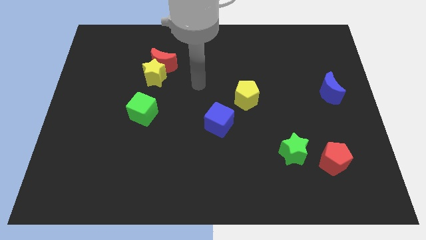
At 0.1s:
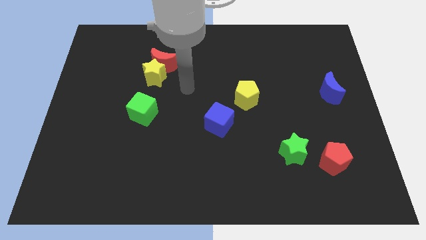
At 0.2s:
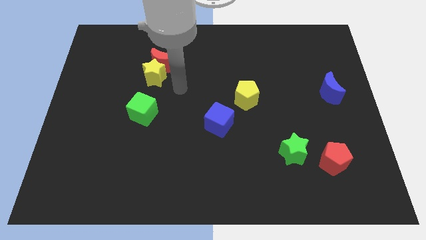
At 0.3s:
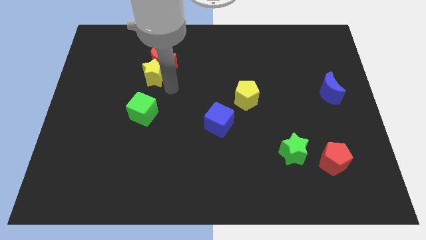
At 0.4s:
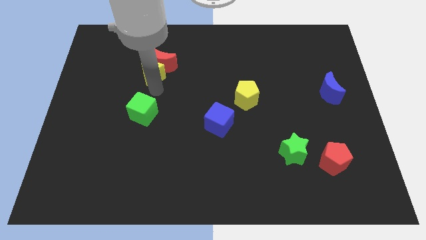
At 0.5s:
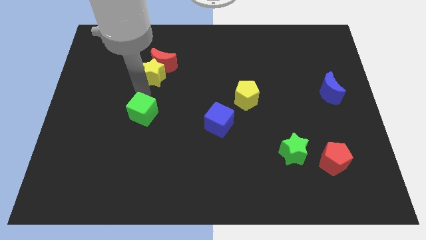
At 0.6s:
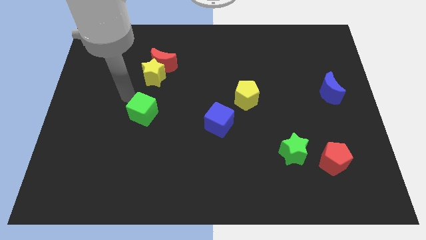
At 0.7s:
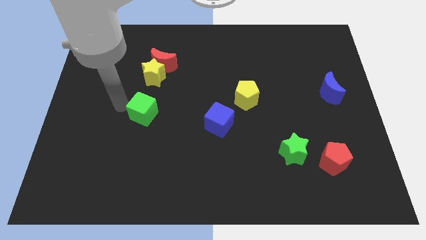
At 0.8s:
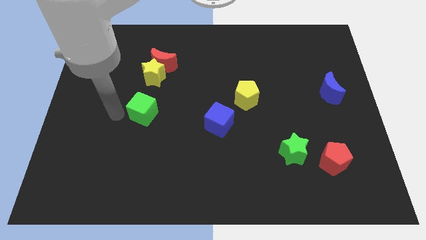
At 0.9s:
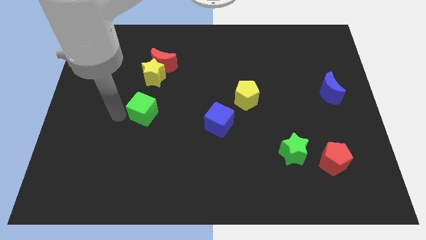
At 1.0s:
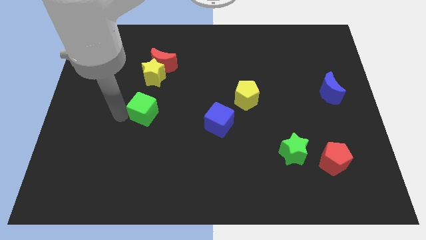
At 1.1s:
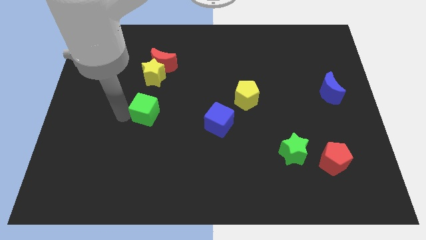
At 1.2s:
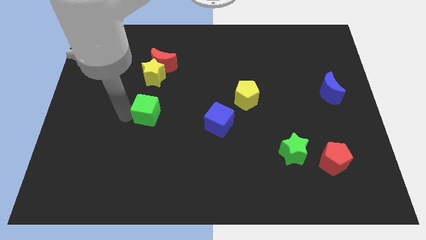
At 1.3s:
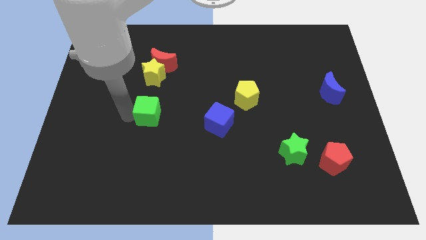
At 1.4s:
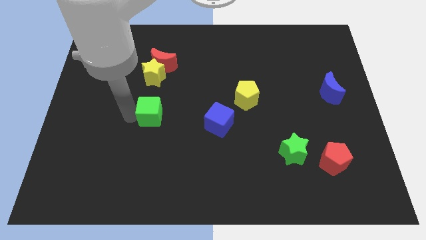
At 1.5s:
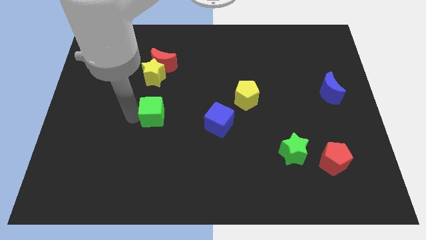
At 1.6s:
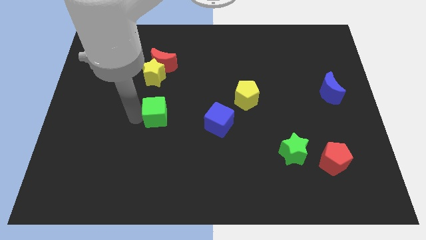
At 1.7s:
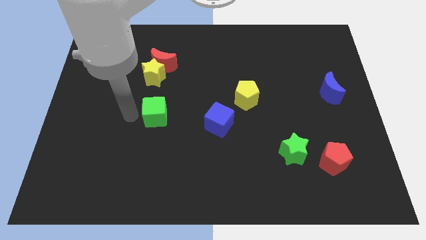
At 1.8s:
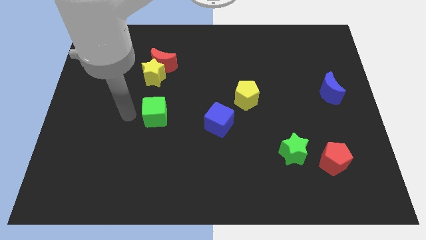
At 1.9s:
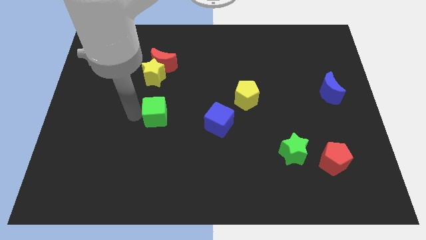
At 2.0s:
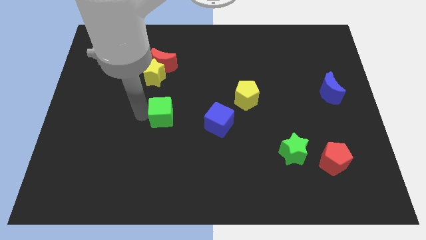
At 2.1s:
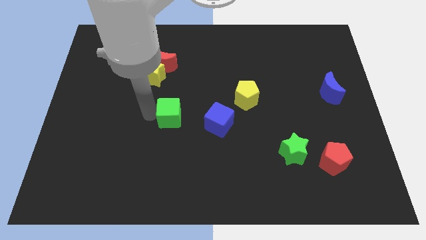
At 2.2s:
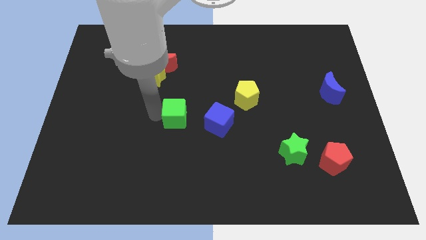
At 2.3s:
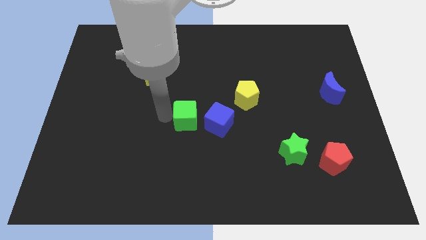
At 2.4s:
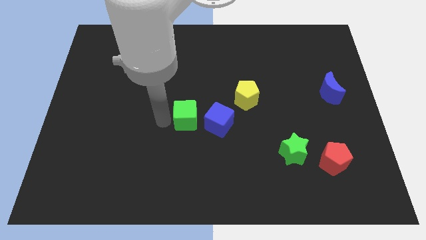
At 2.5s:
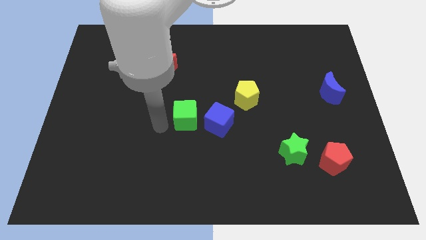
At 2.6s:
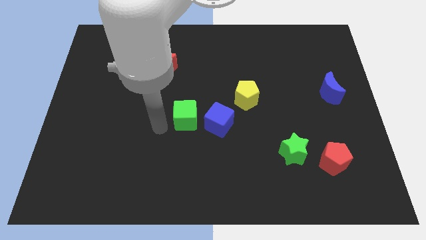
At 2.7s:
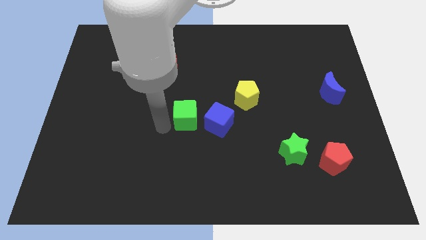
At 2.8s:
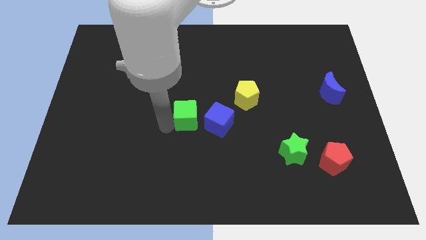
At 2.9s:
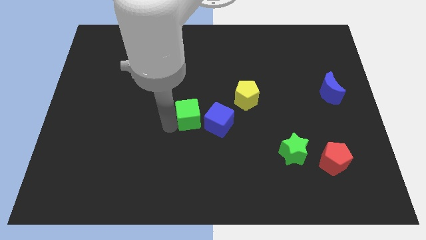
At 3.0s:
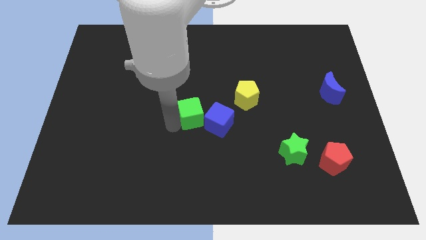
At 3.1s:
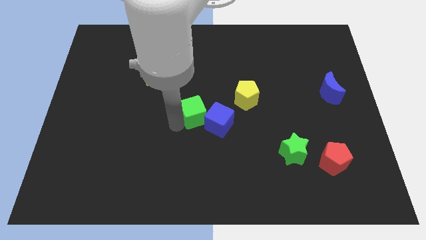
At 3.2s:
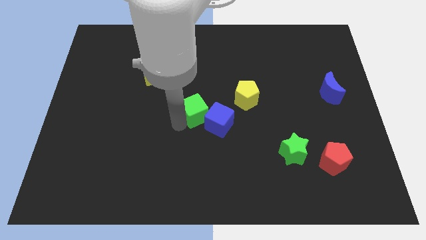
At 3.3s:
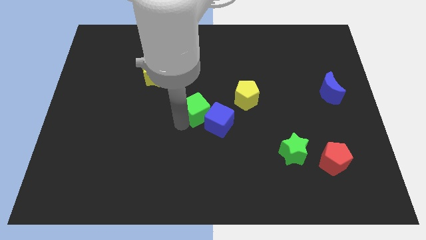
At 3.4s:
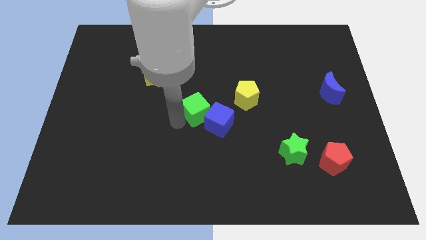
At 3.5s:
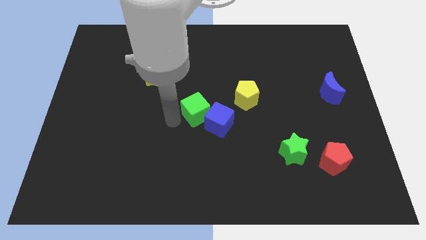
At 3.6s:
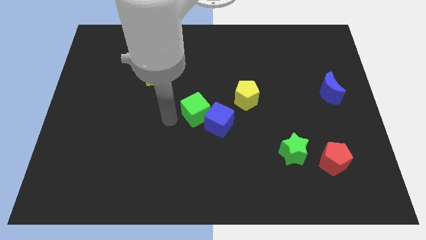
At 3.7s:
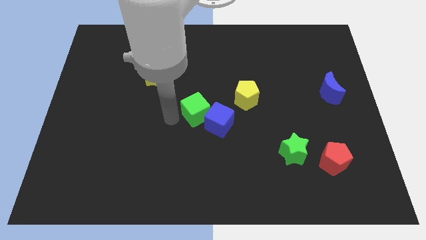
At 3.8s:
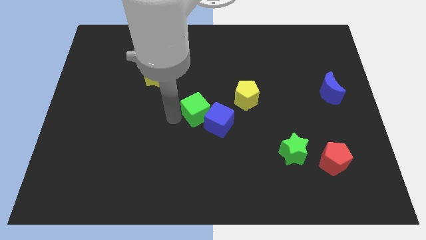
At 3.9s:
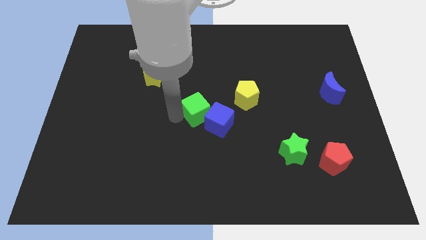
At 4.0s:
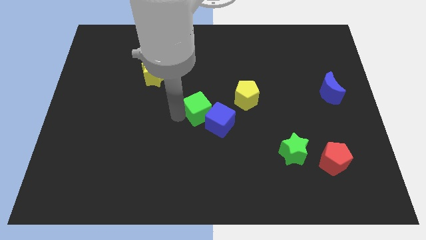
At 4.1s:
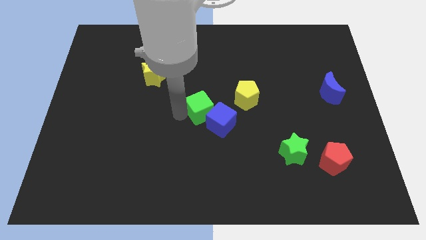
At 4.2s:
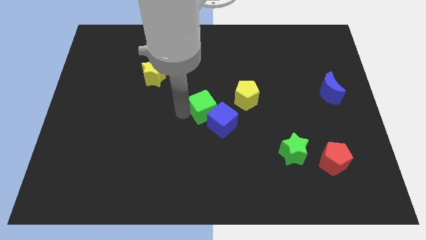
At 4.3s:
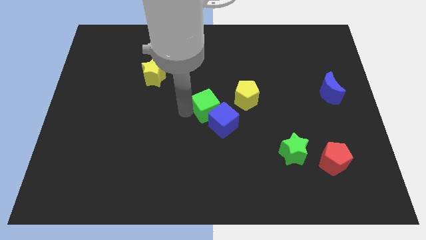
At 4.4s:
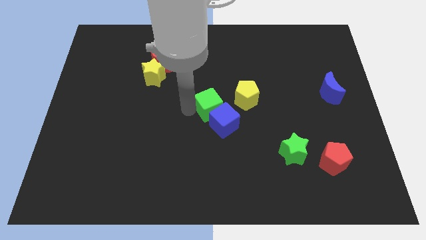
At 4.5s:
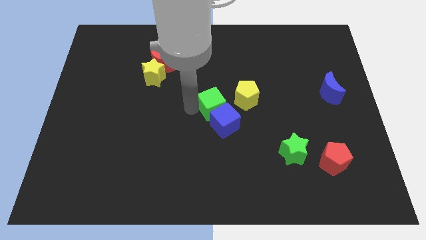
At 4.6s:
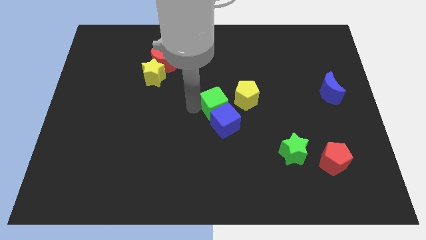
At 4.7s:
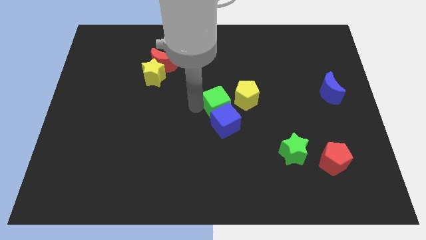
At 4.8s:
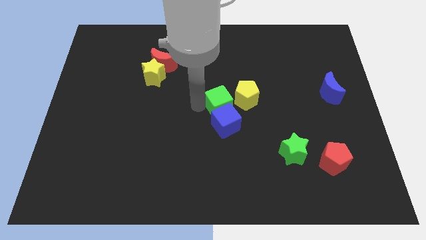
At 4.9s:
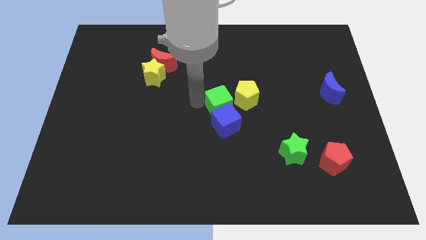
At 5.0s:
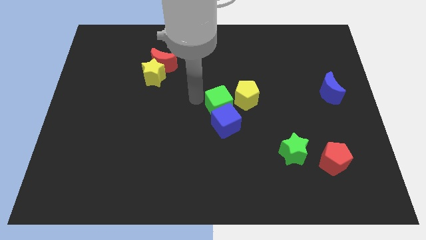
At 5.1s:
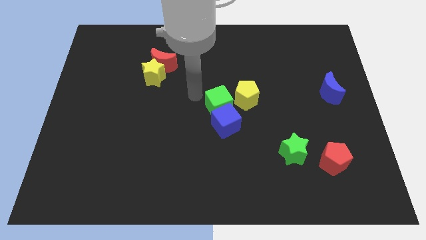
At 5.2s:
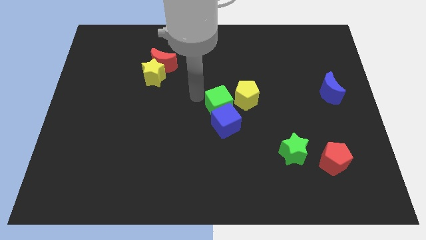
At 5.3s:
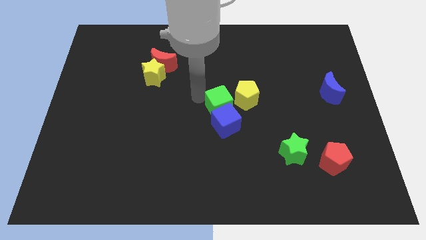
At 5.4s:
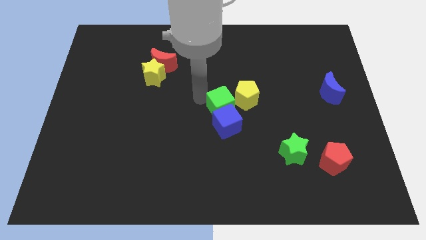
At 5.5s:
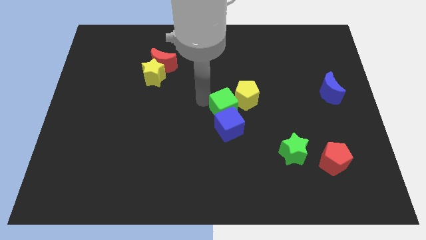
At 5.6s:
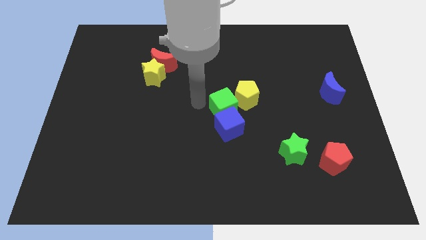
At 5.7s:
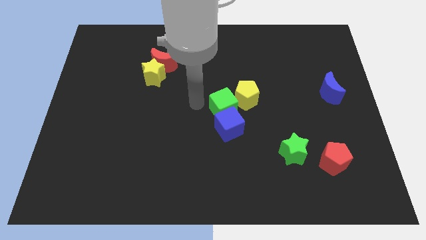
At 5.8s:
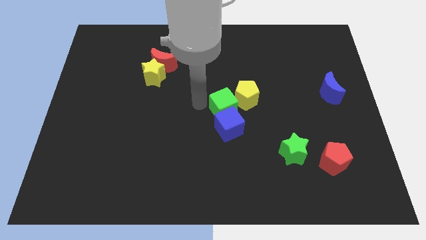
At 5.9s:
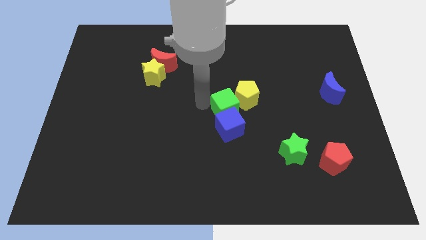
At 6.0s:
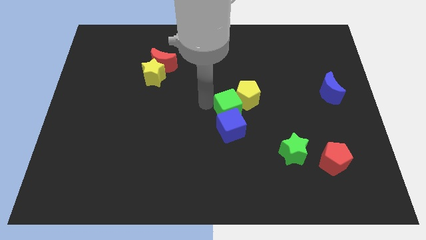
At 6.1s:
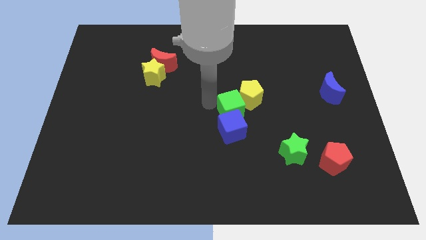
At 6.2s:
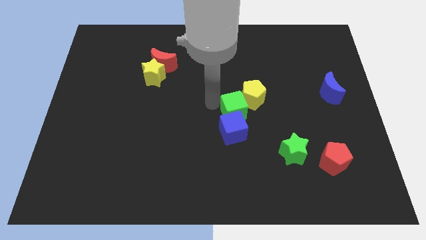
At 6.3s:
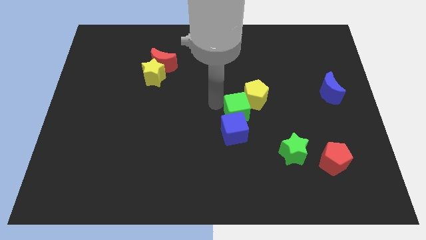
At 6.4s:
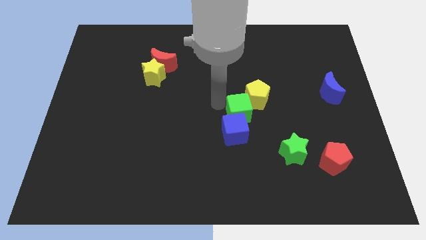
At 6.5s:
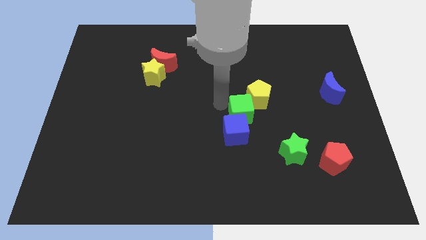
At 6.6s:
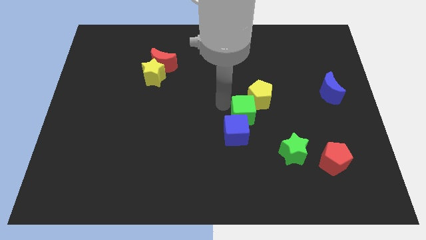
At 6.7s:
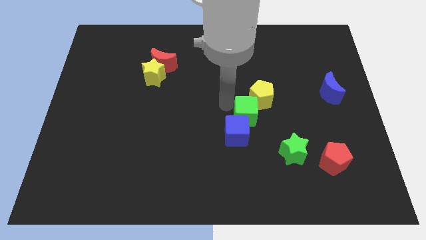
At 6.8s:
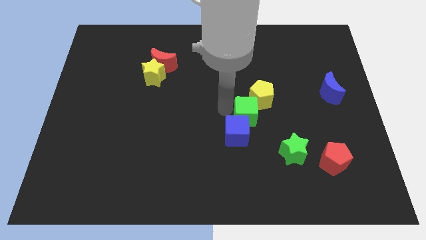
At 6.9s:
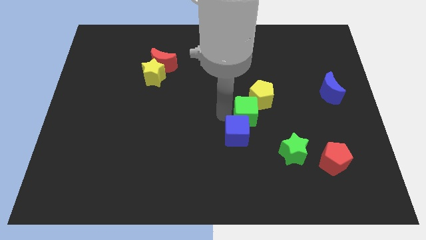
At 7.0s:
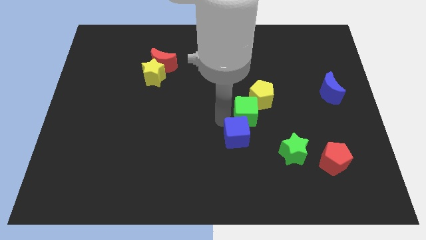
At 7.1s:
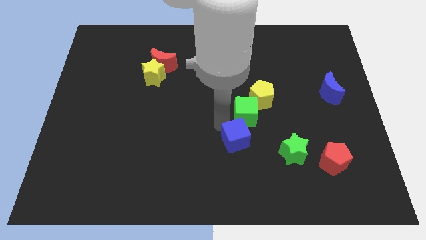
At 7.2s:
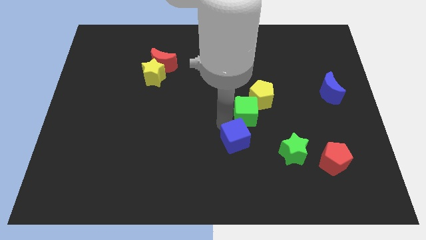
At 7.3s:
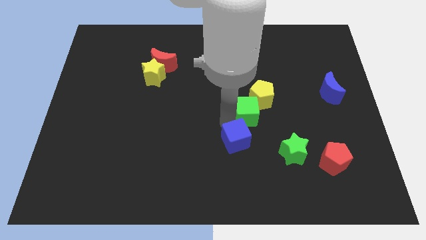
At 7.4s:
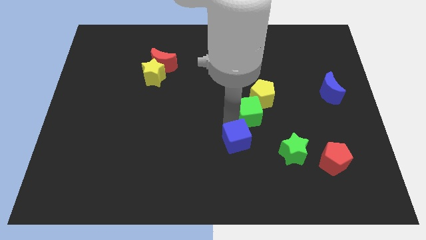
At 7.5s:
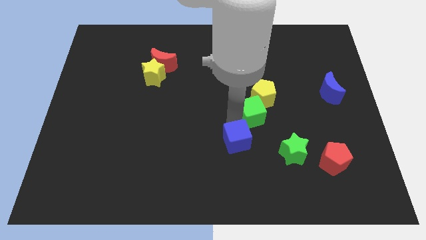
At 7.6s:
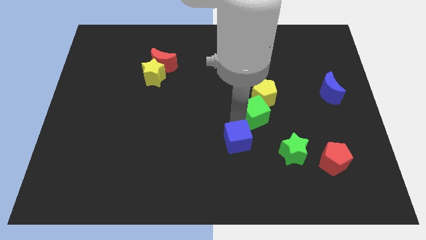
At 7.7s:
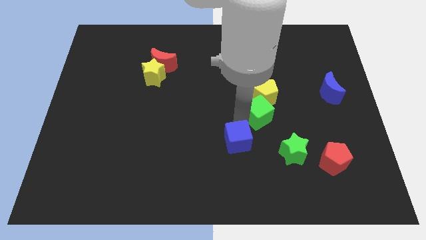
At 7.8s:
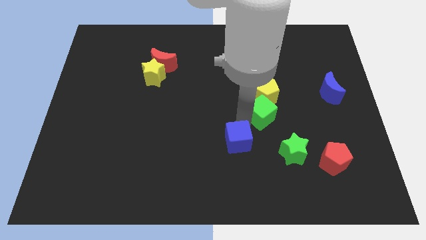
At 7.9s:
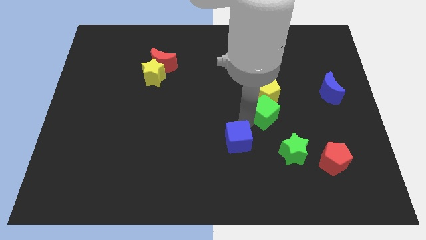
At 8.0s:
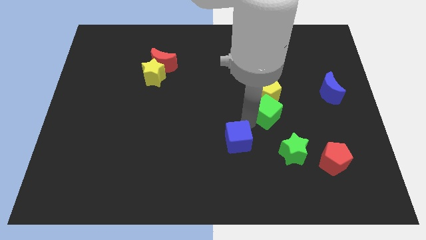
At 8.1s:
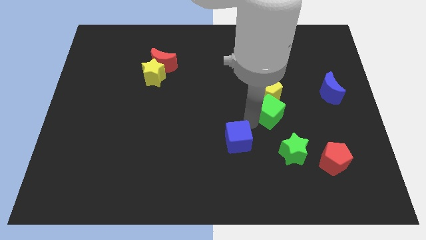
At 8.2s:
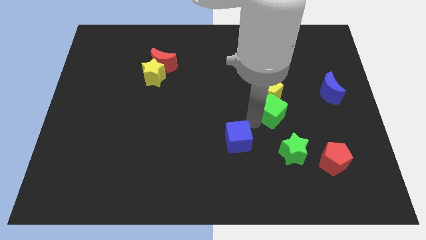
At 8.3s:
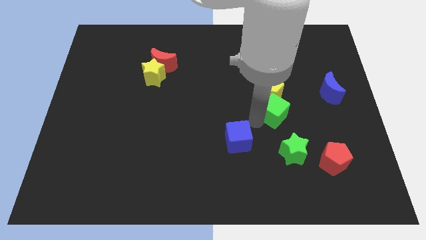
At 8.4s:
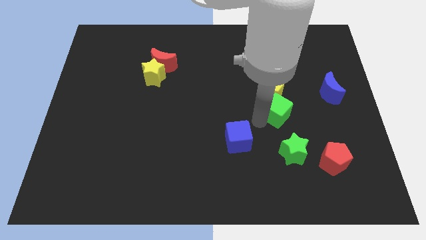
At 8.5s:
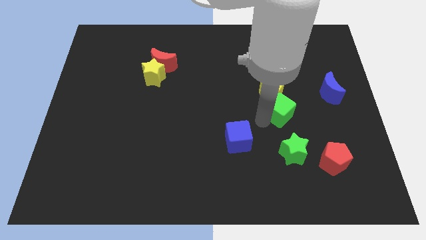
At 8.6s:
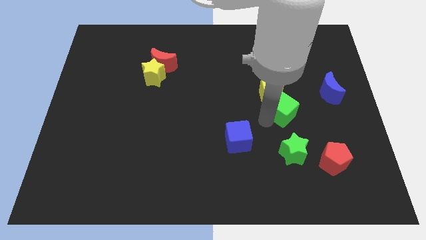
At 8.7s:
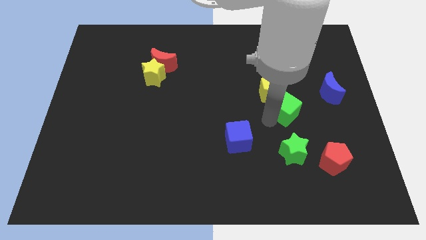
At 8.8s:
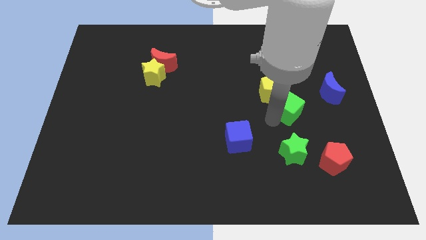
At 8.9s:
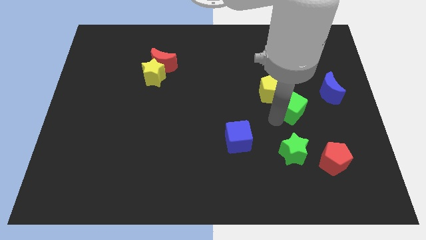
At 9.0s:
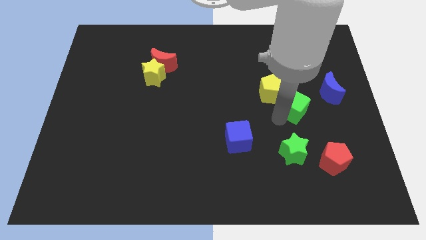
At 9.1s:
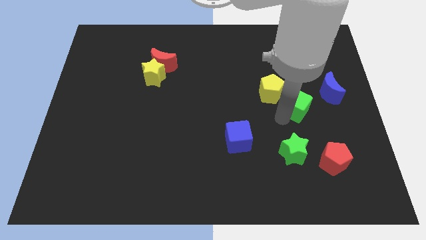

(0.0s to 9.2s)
slide the green cube just left of the blue moon
